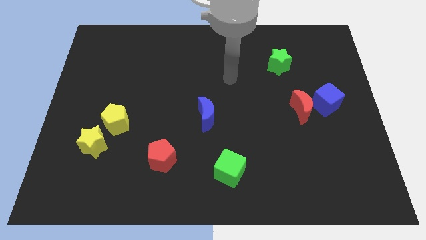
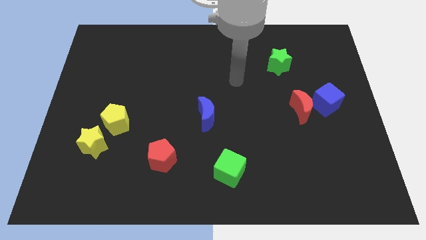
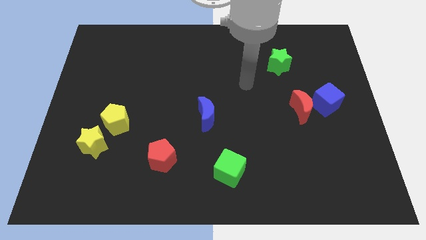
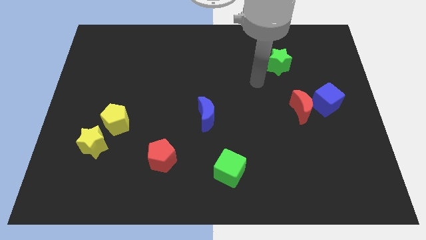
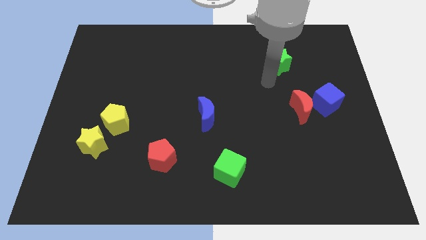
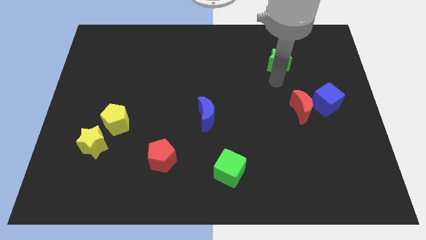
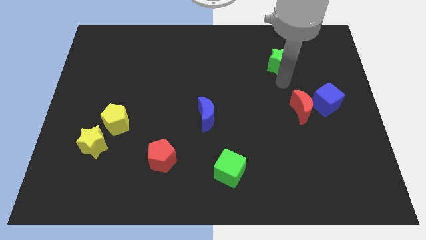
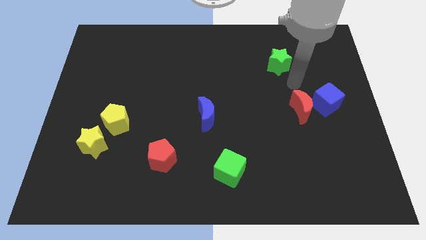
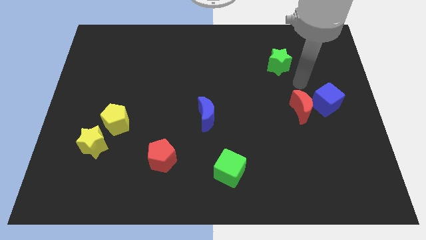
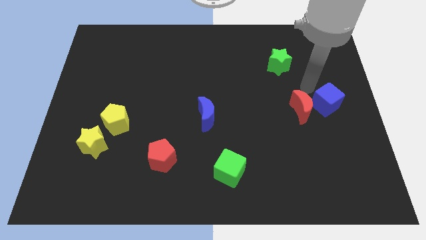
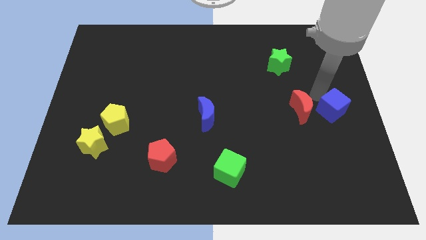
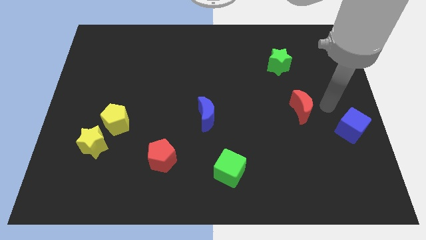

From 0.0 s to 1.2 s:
move the red moon away from the blue cube

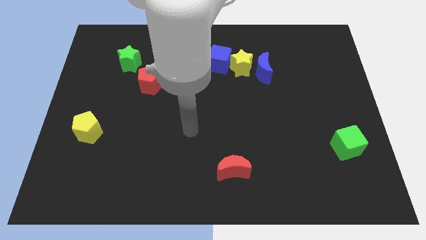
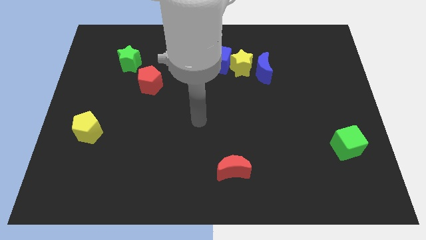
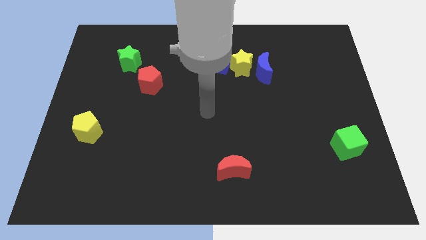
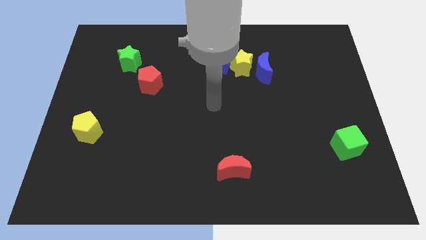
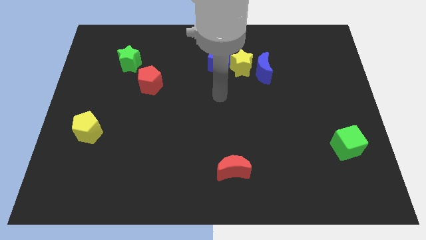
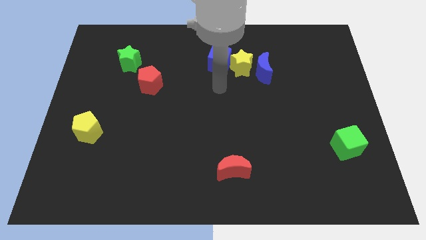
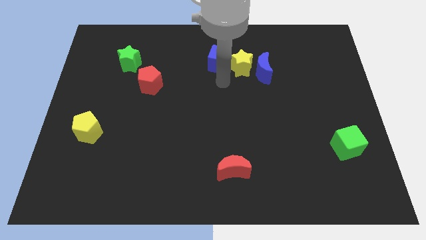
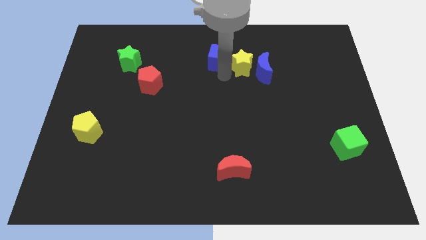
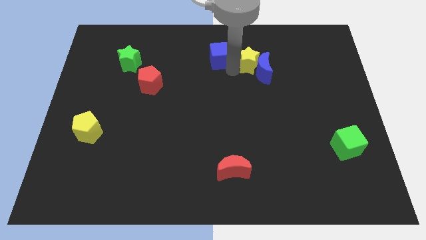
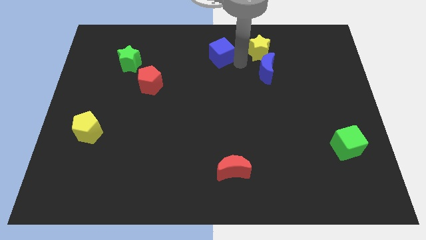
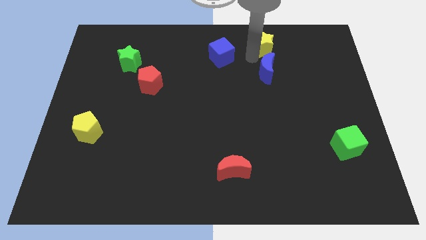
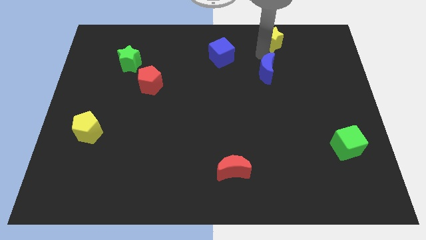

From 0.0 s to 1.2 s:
separate the blue moon from the yellow star

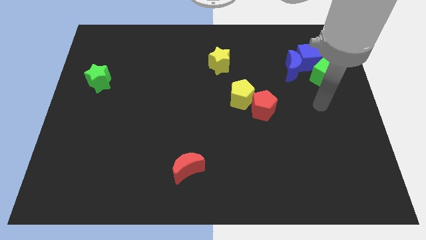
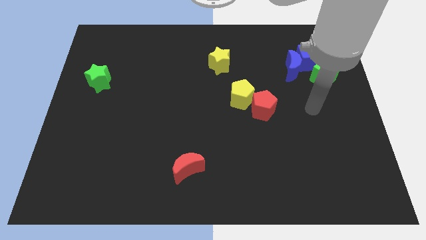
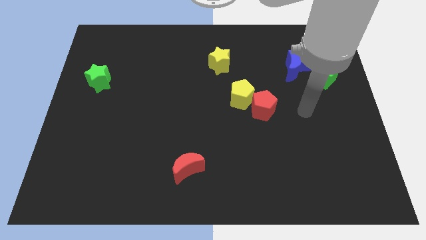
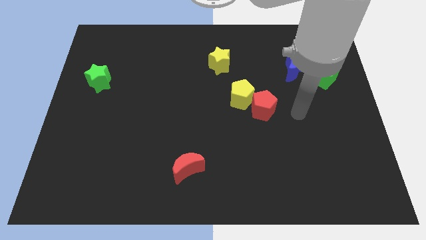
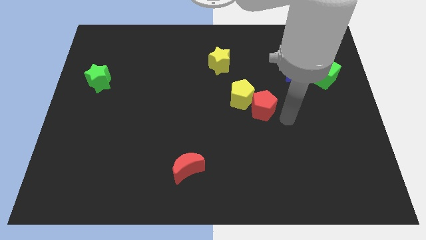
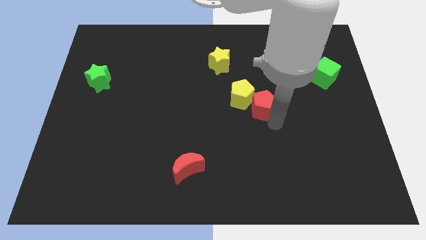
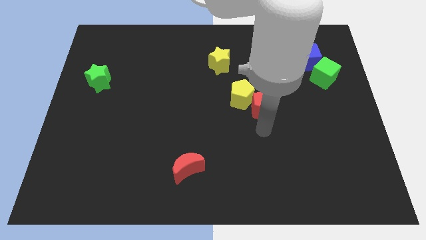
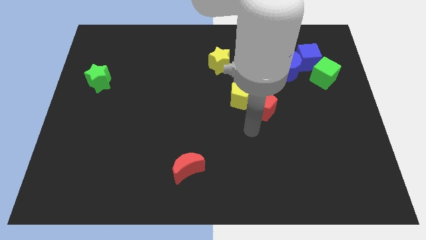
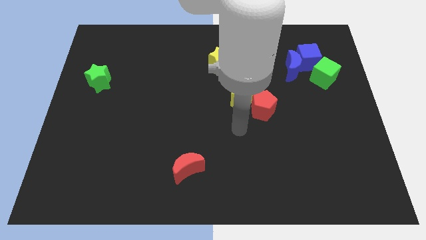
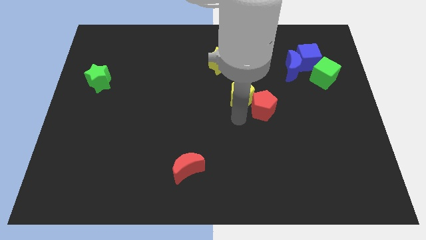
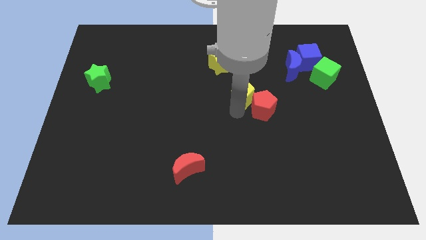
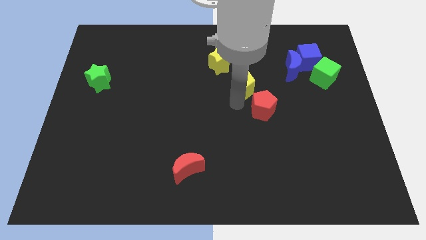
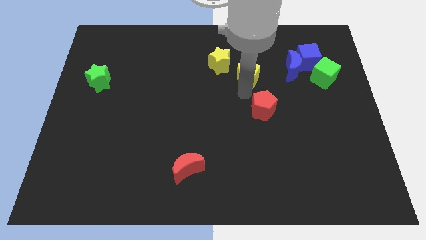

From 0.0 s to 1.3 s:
pull the red pentagon apart from the yellow pentagon

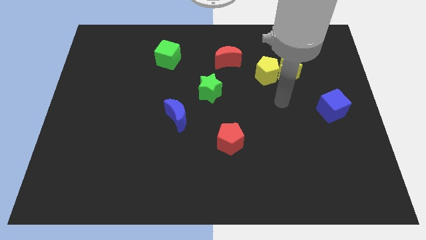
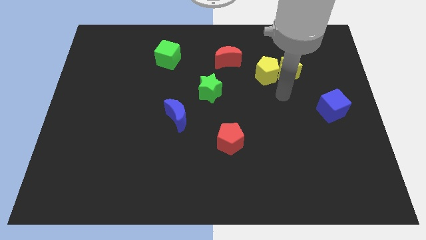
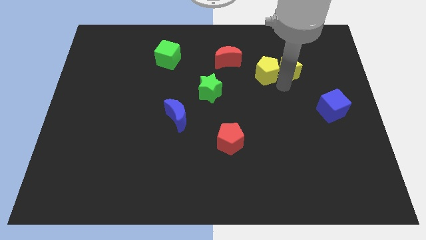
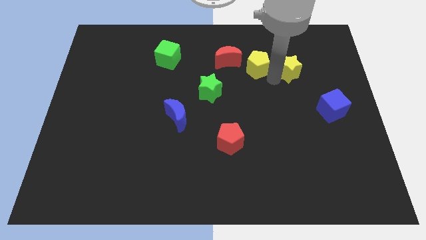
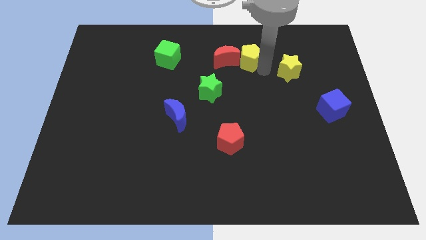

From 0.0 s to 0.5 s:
pull the yellow star apart from the yellow pentagon

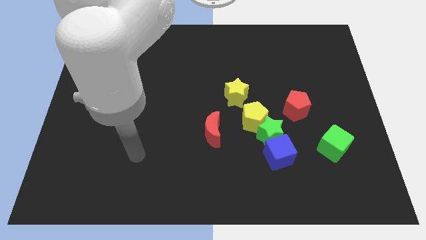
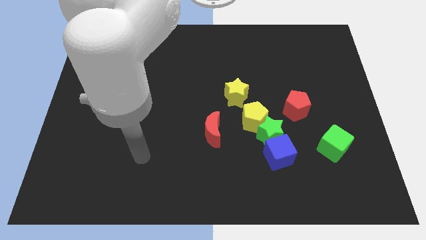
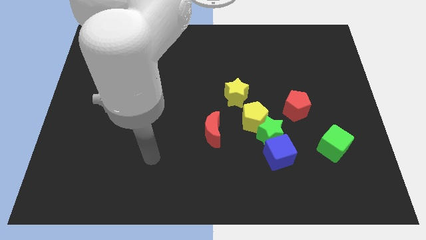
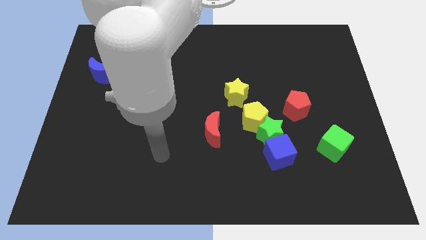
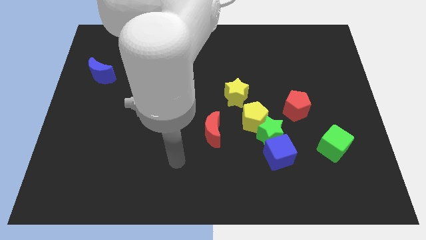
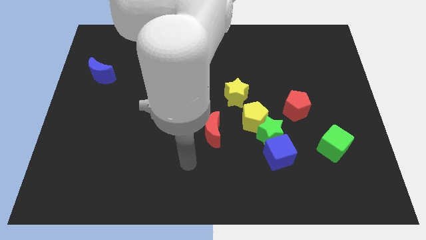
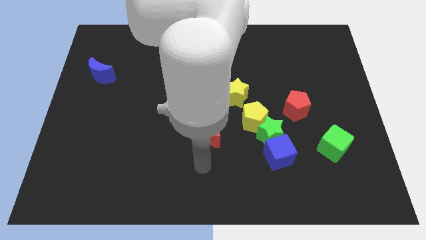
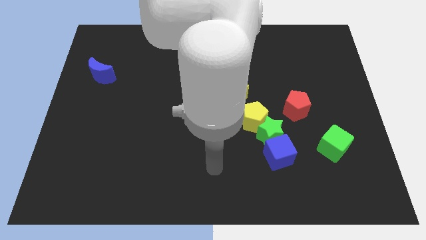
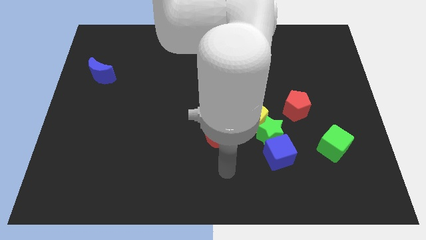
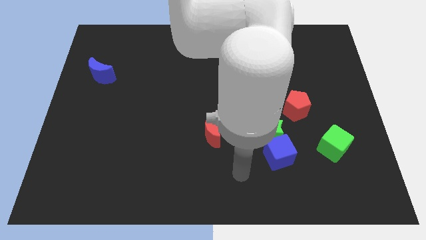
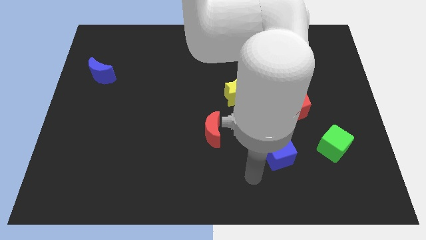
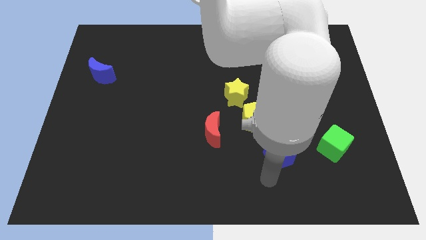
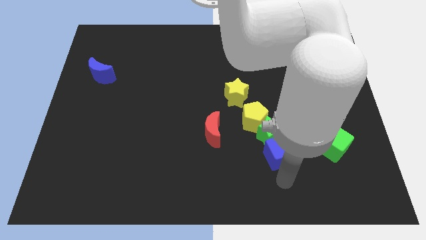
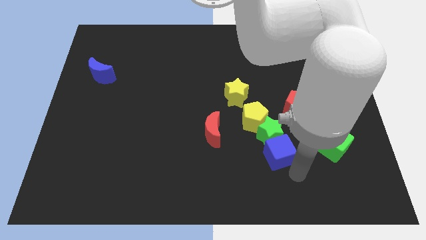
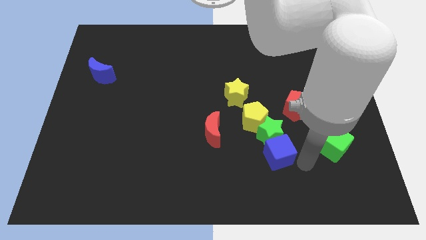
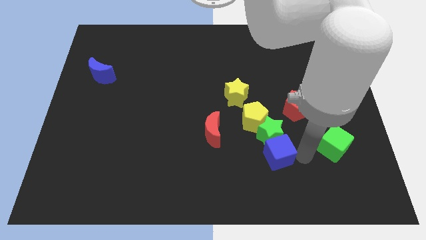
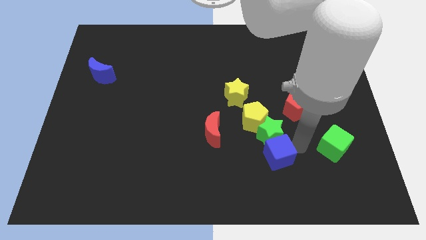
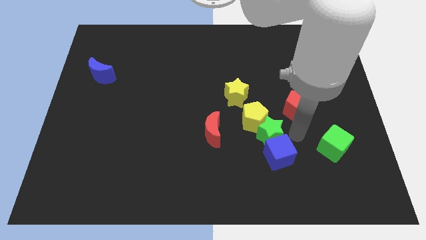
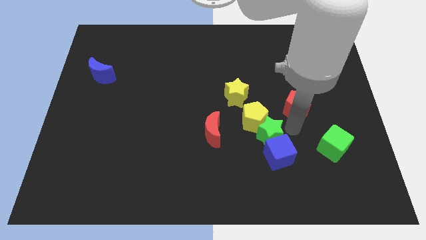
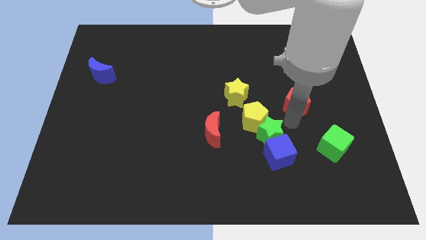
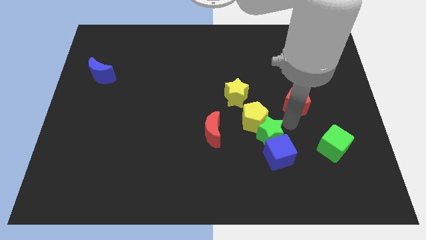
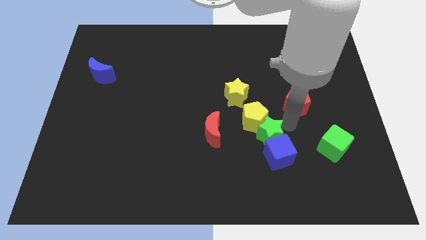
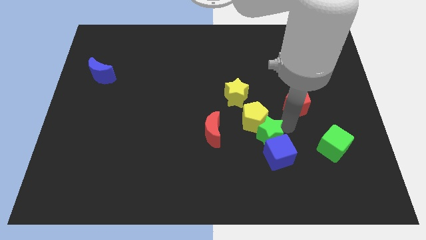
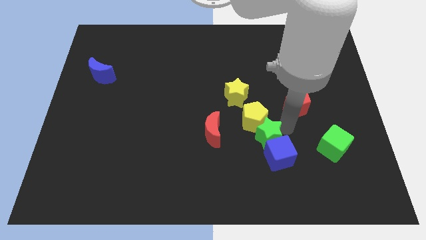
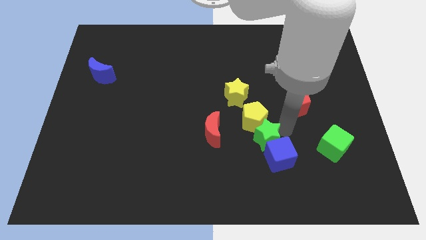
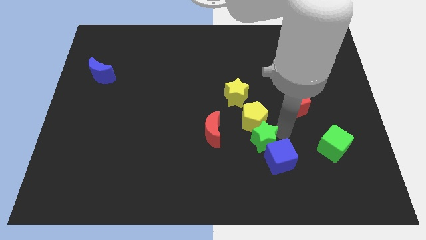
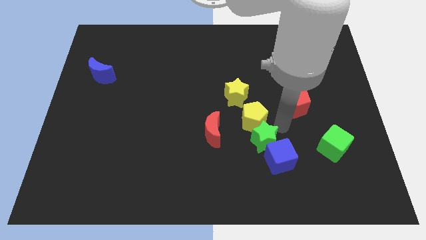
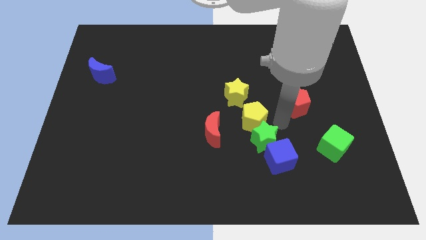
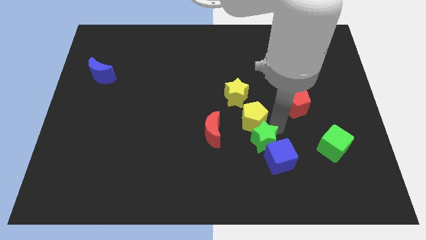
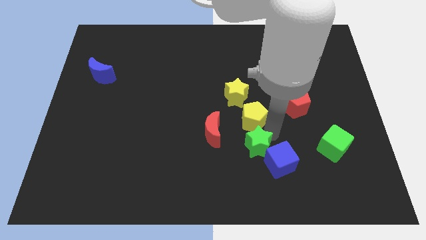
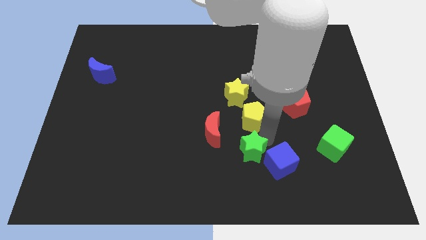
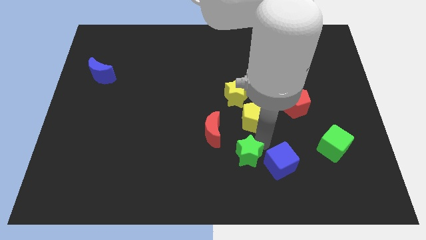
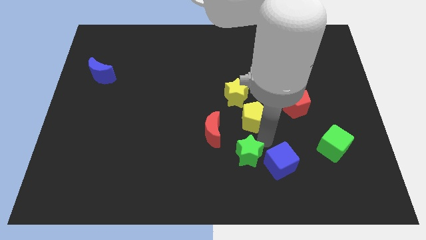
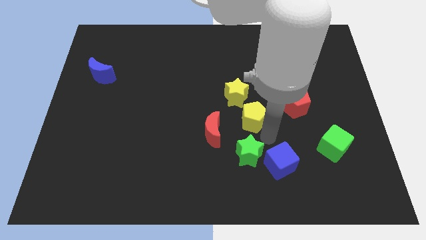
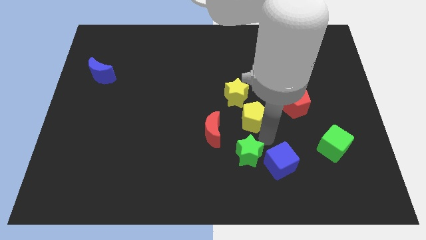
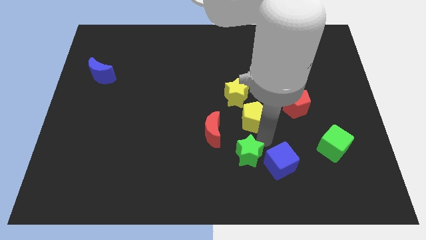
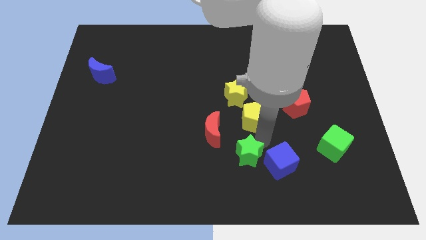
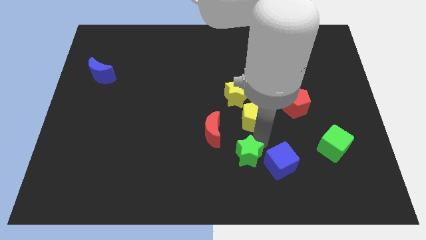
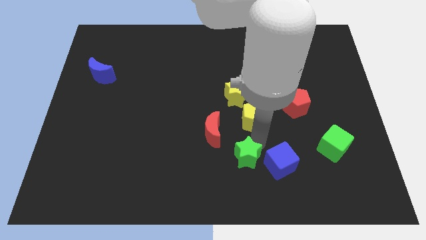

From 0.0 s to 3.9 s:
pull the green star apart from the blue cube, yellow pentagon, and red pentagon

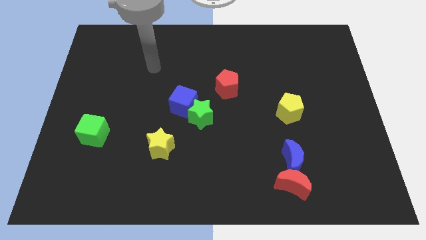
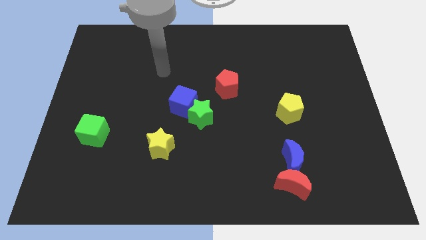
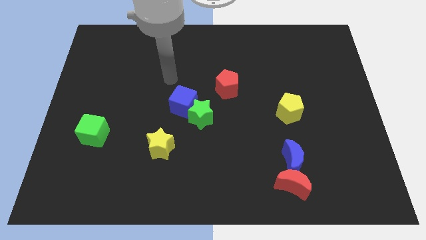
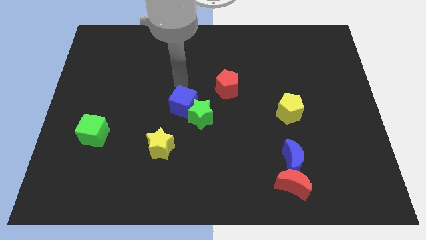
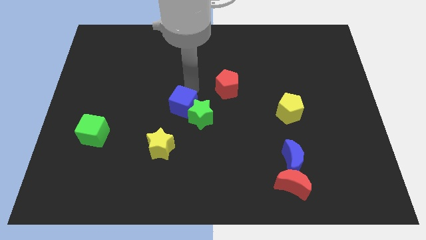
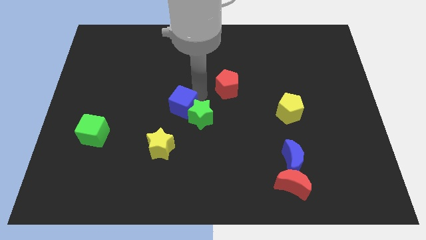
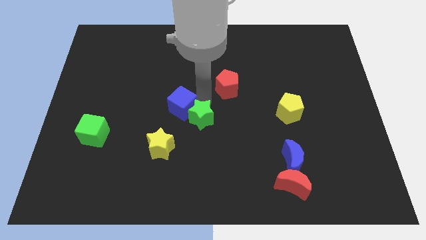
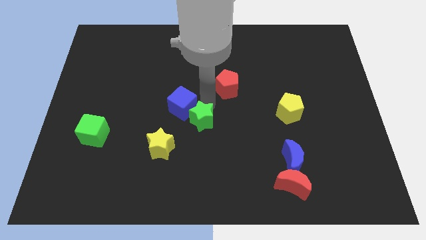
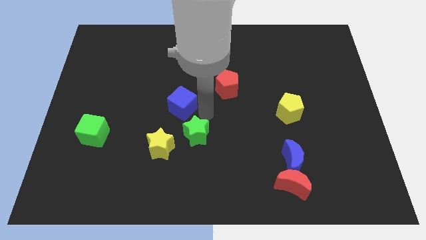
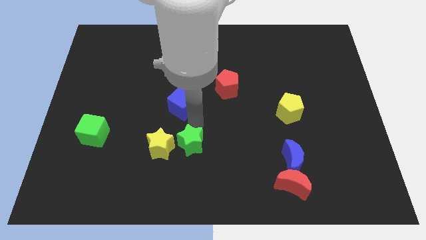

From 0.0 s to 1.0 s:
move the blue cube away from the green star

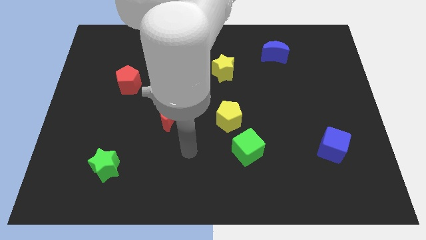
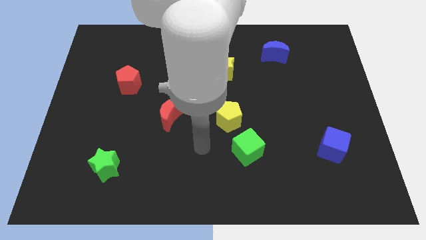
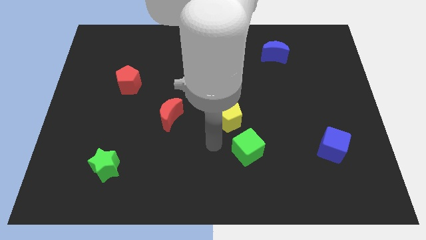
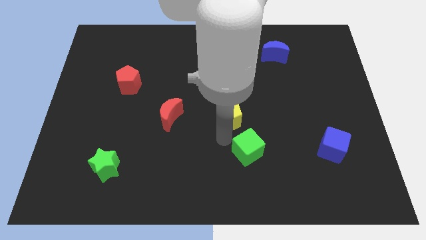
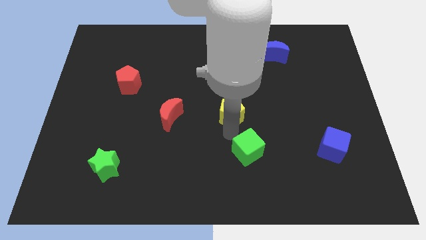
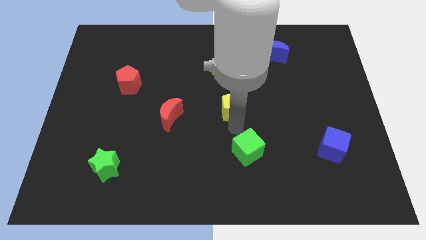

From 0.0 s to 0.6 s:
separate the green cube from the yellow pentagon
